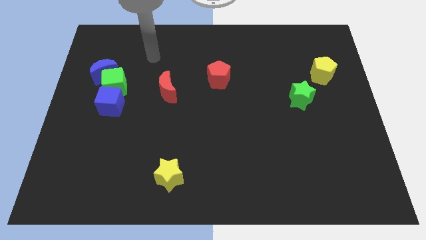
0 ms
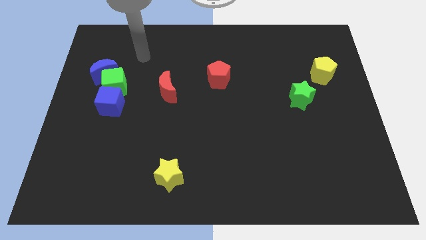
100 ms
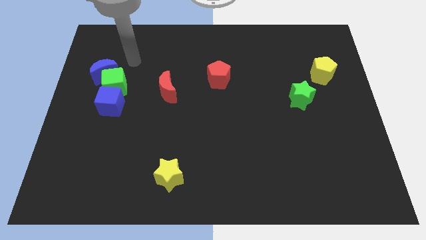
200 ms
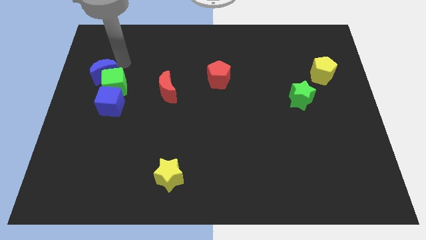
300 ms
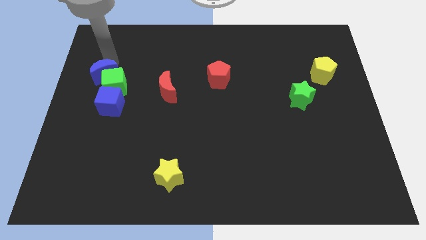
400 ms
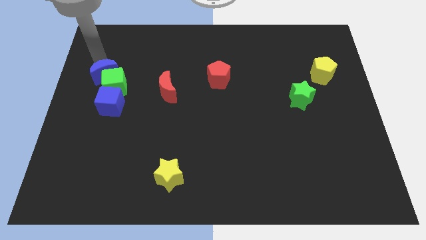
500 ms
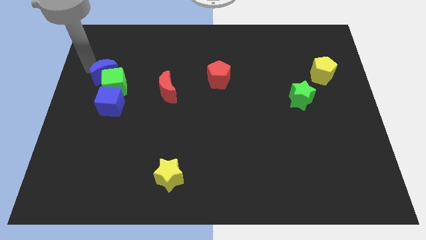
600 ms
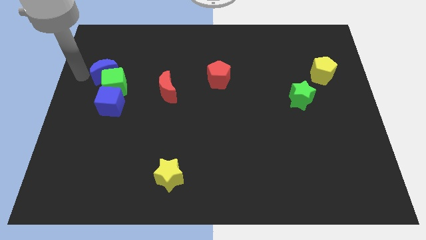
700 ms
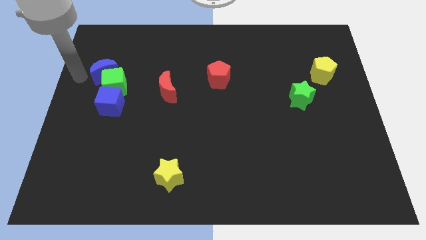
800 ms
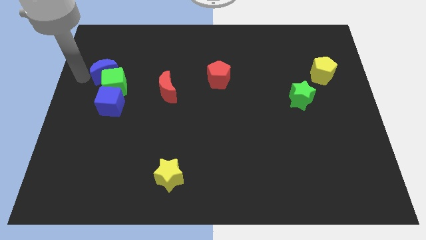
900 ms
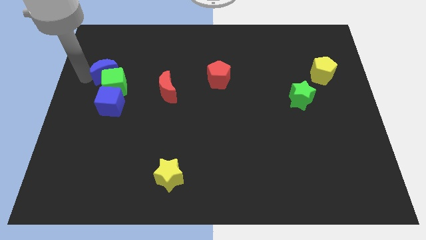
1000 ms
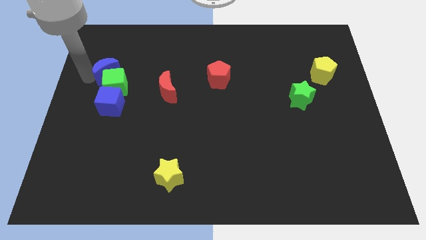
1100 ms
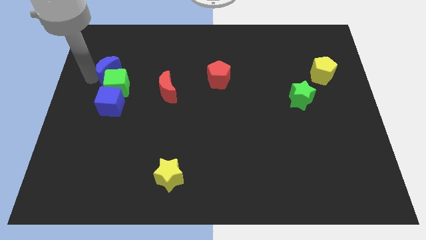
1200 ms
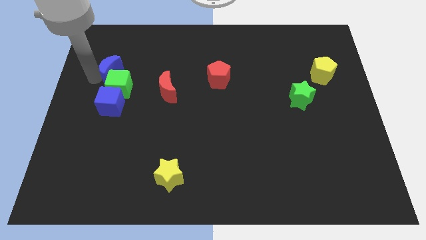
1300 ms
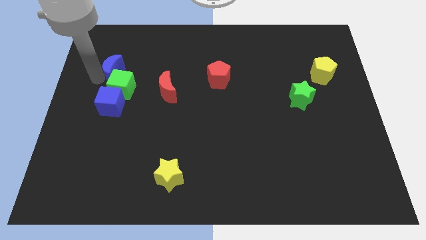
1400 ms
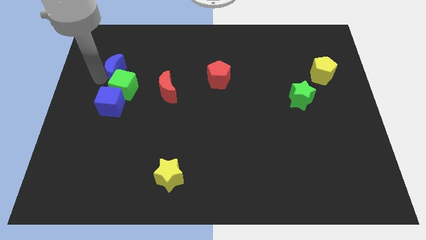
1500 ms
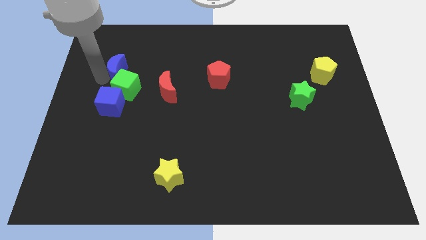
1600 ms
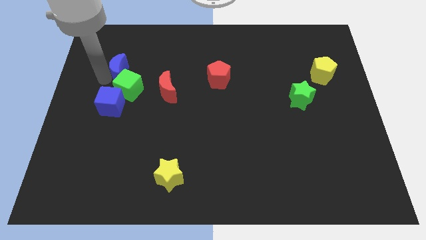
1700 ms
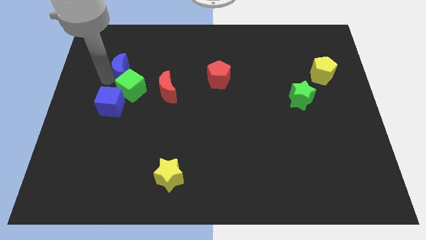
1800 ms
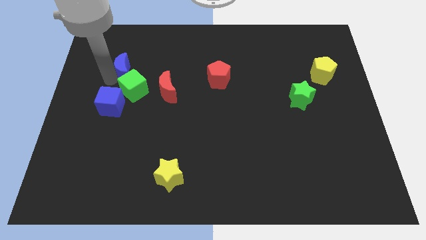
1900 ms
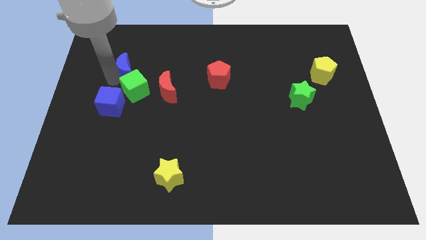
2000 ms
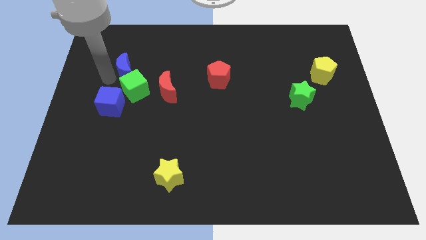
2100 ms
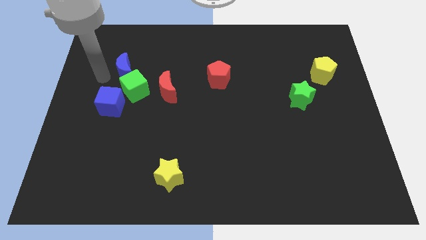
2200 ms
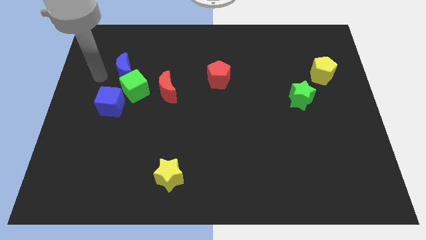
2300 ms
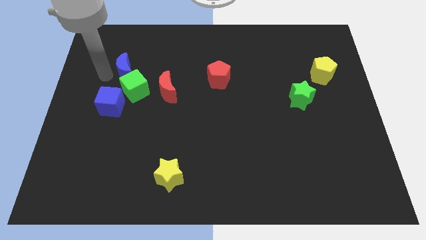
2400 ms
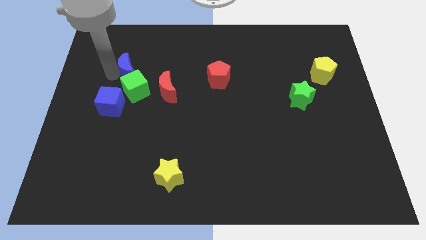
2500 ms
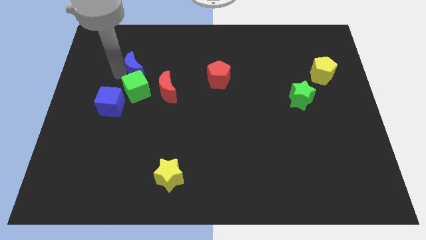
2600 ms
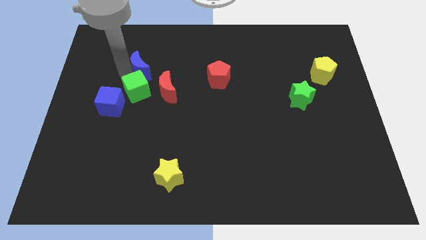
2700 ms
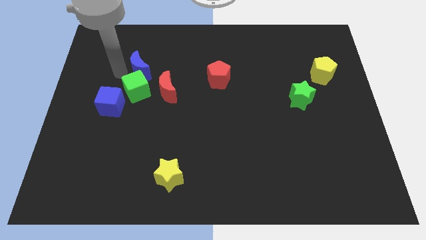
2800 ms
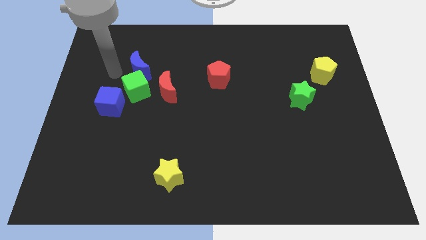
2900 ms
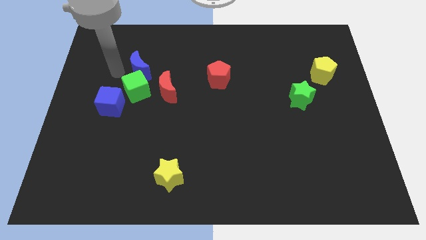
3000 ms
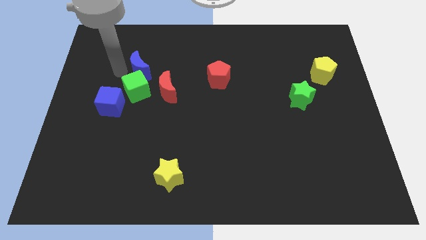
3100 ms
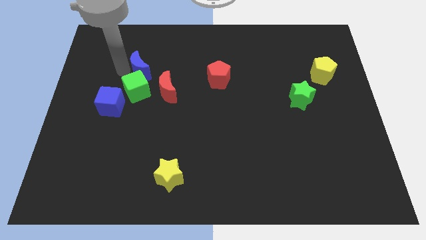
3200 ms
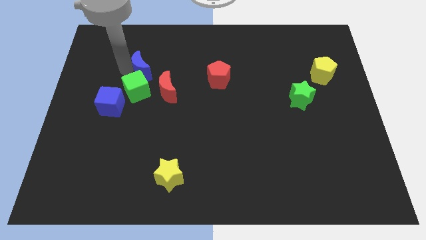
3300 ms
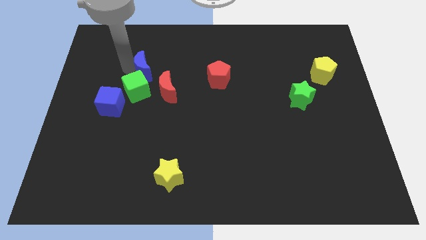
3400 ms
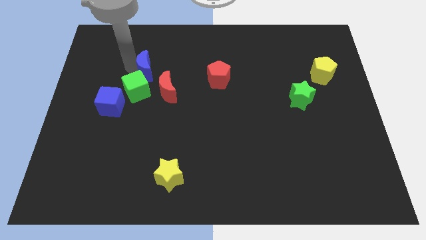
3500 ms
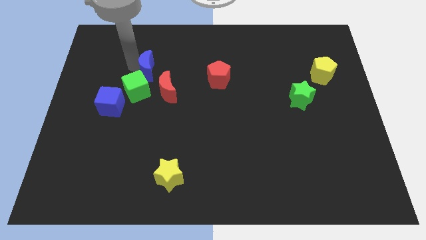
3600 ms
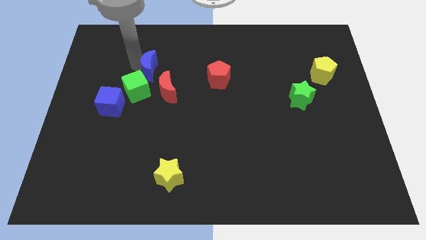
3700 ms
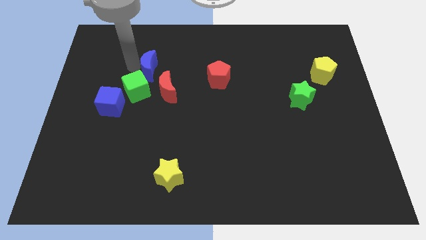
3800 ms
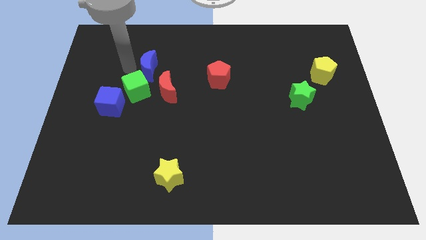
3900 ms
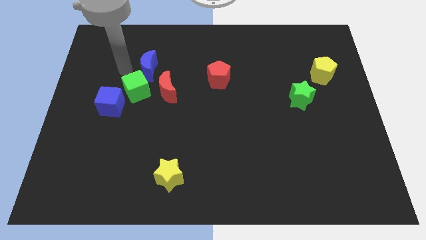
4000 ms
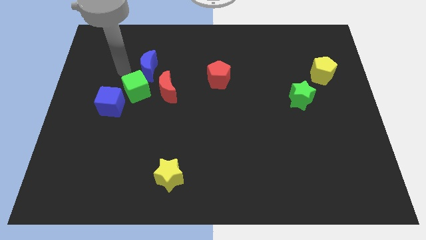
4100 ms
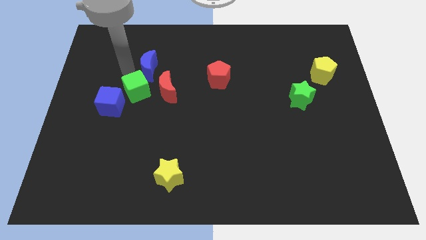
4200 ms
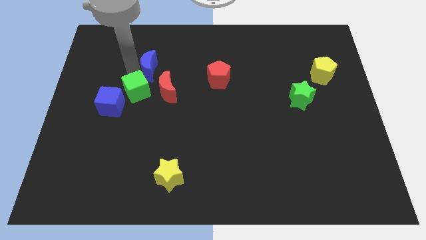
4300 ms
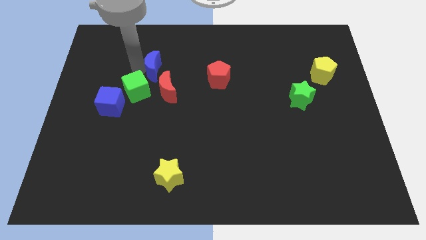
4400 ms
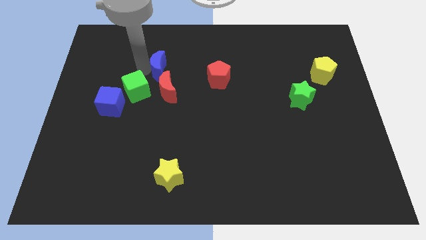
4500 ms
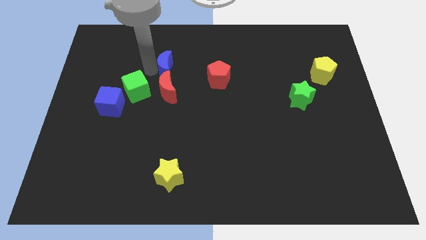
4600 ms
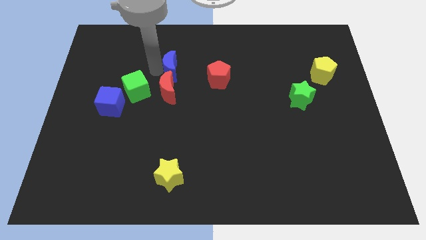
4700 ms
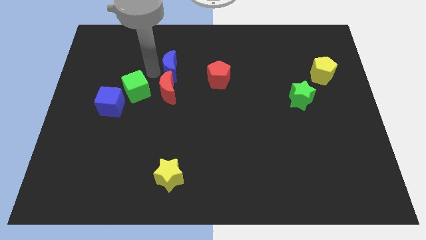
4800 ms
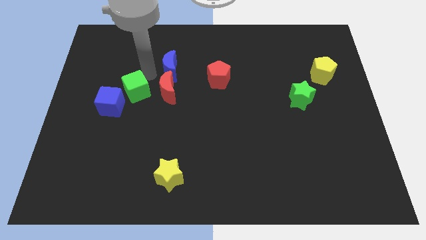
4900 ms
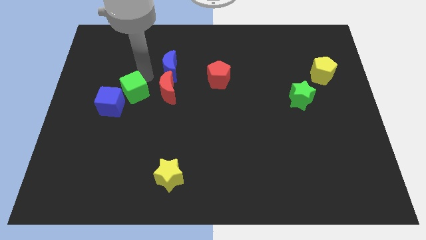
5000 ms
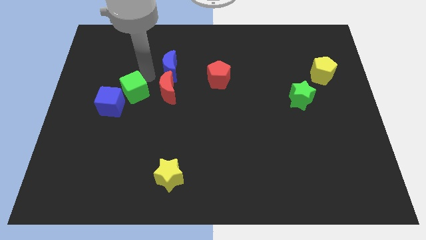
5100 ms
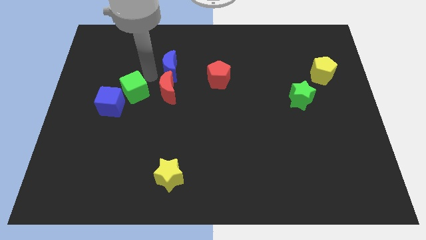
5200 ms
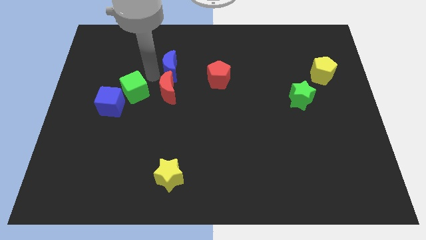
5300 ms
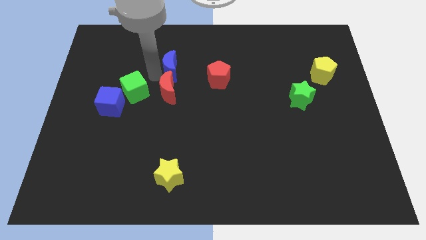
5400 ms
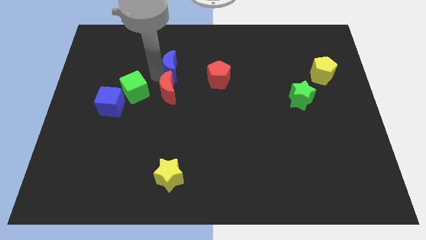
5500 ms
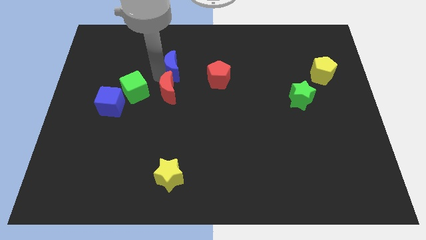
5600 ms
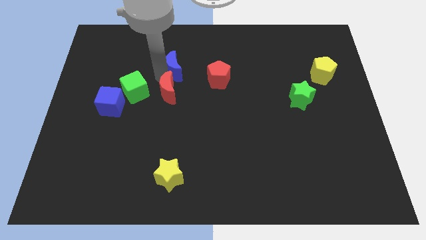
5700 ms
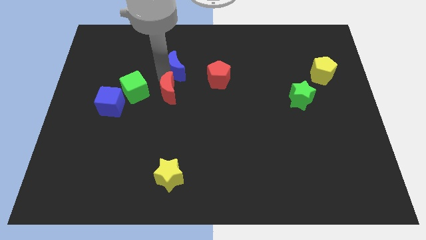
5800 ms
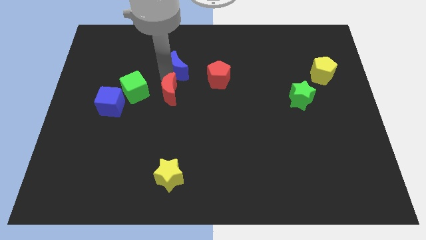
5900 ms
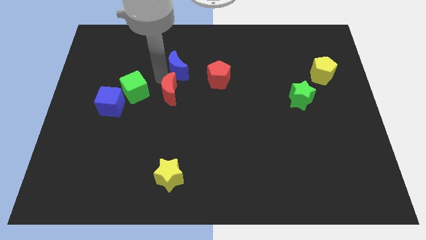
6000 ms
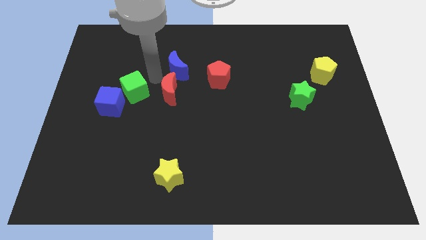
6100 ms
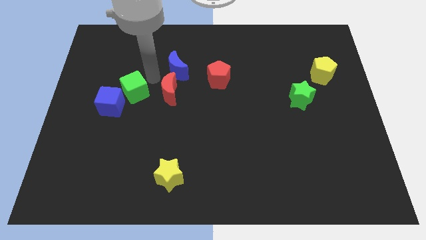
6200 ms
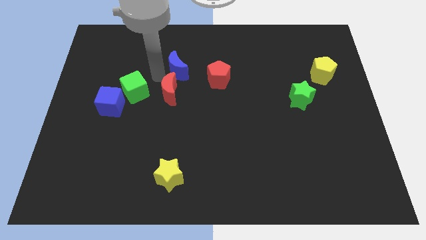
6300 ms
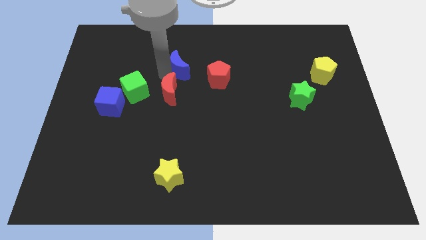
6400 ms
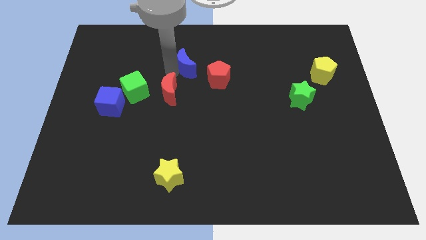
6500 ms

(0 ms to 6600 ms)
slide the blue moon right

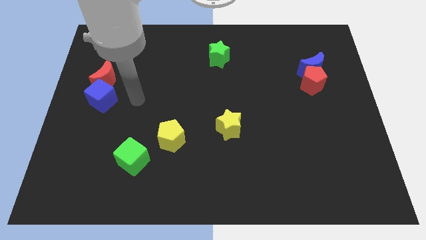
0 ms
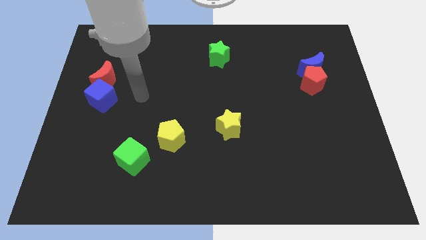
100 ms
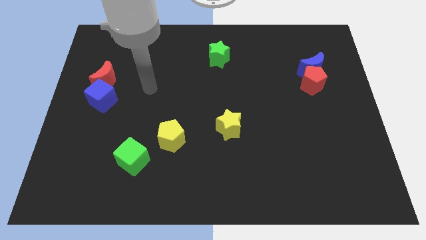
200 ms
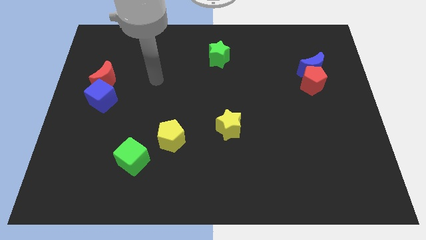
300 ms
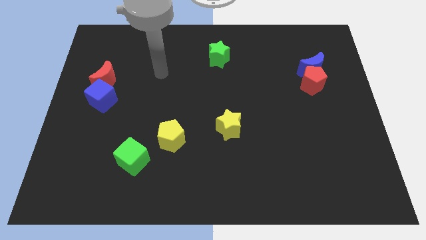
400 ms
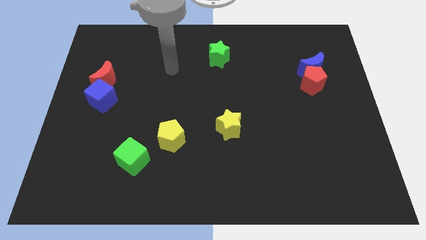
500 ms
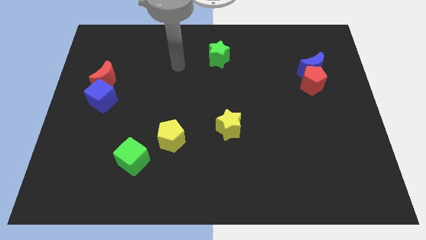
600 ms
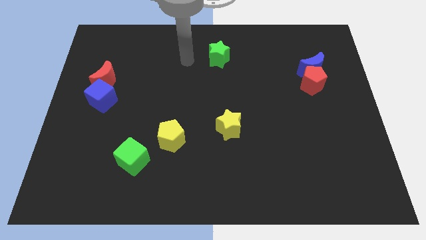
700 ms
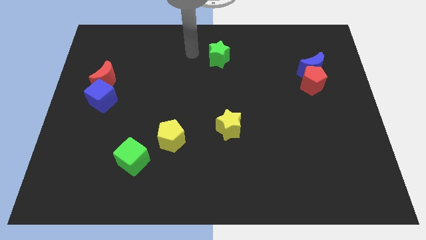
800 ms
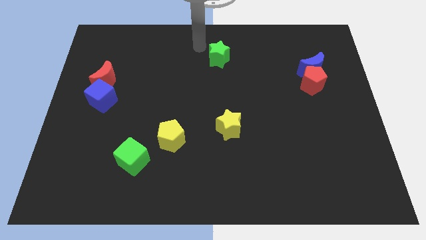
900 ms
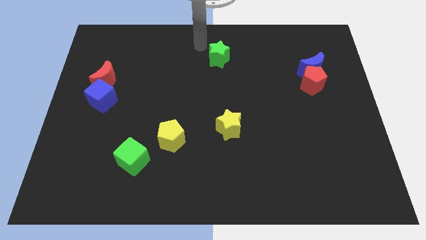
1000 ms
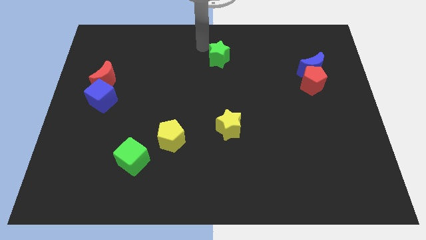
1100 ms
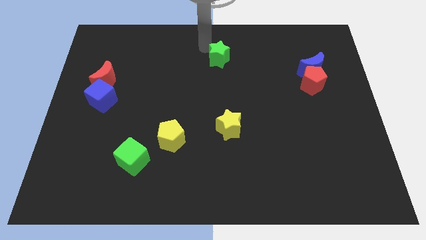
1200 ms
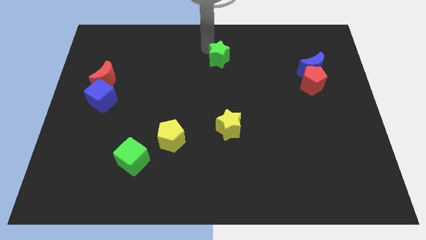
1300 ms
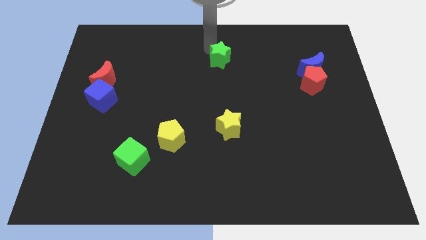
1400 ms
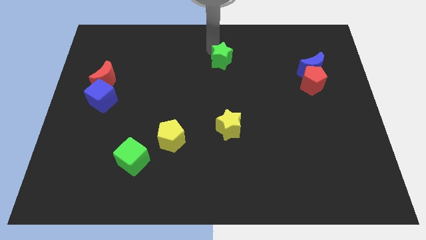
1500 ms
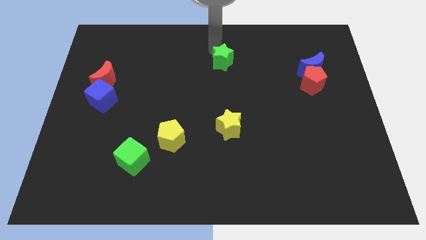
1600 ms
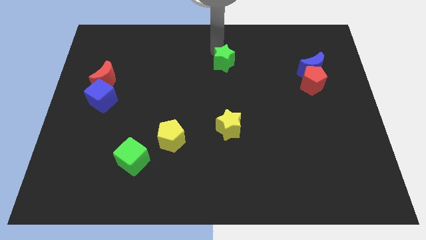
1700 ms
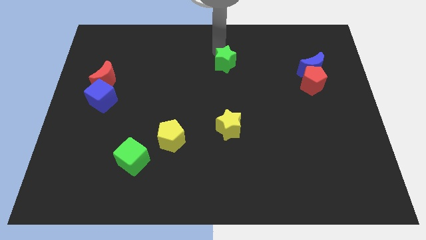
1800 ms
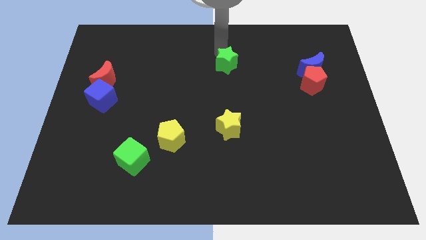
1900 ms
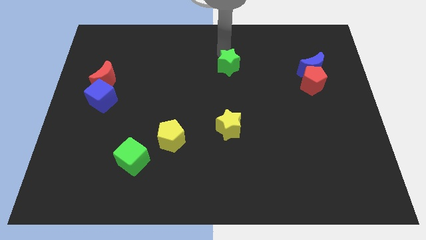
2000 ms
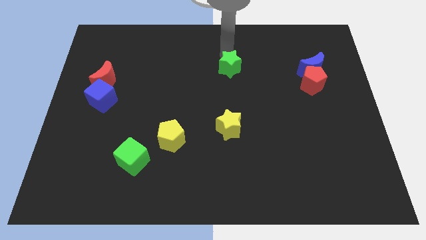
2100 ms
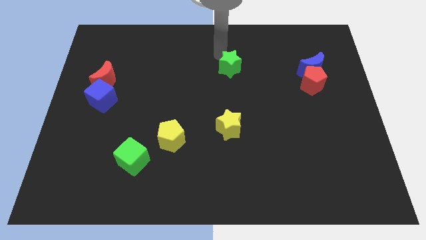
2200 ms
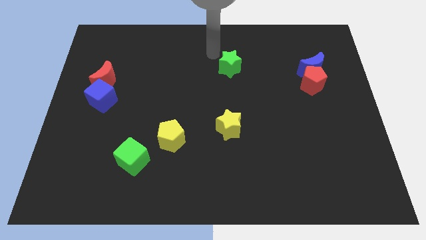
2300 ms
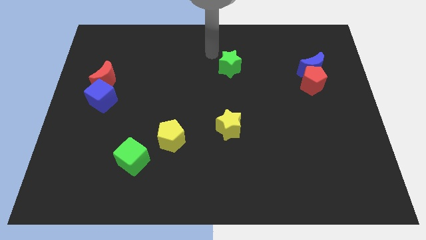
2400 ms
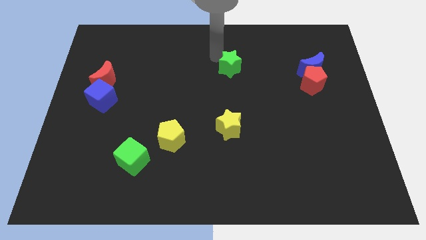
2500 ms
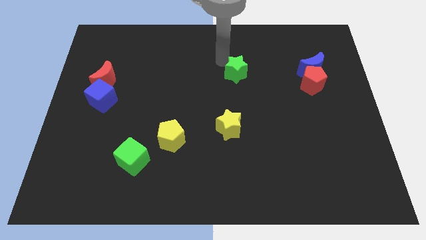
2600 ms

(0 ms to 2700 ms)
push the green star down and right diagonally a bit
